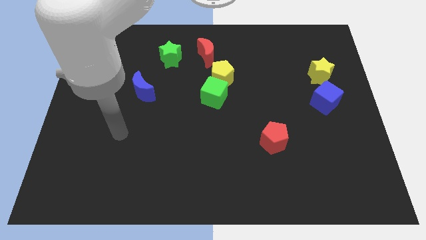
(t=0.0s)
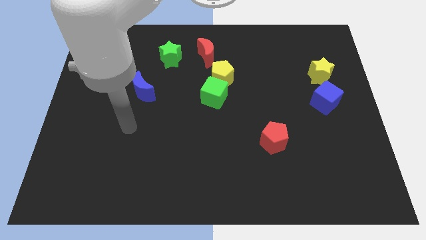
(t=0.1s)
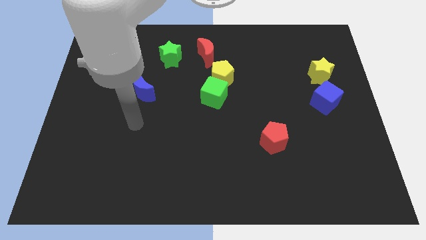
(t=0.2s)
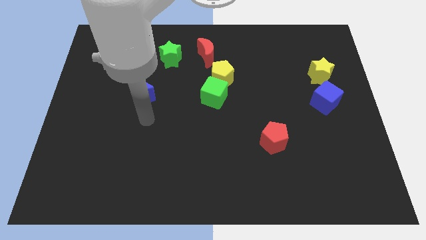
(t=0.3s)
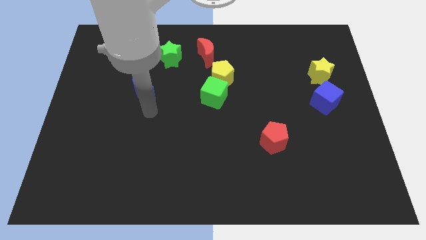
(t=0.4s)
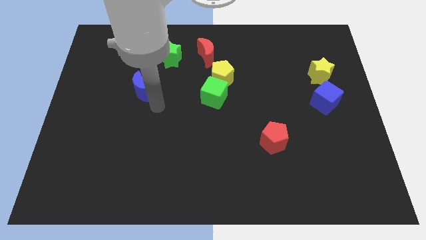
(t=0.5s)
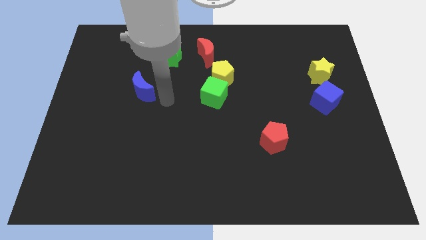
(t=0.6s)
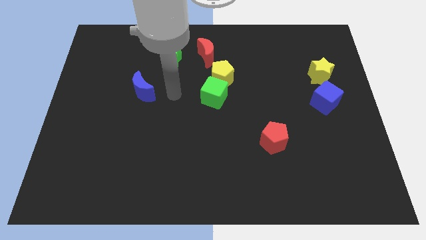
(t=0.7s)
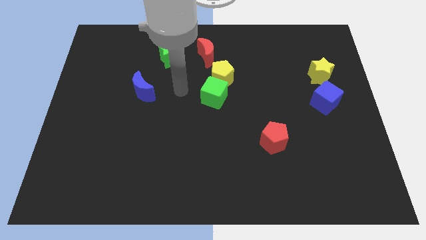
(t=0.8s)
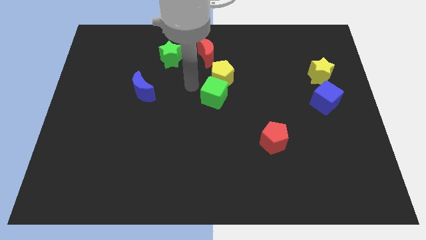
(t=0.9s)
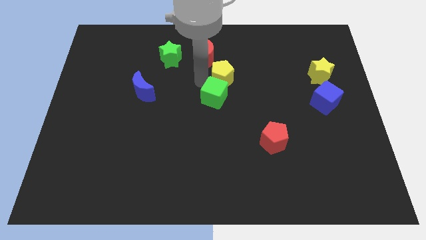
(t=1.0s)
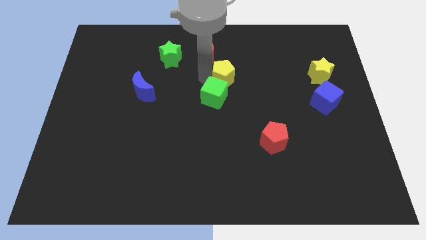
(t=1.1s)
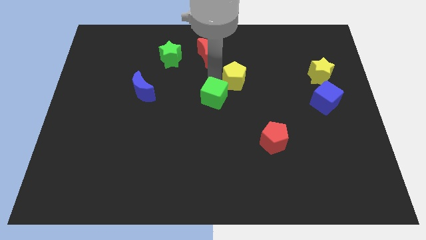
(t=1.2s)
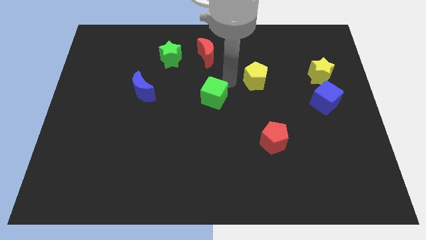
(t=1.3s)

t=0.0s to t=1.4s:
separate the green cube from the yellow pentagon

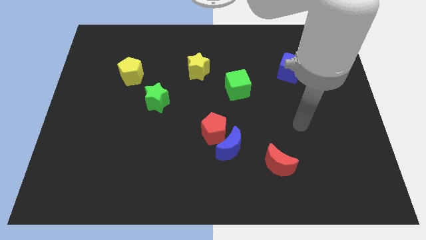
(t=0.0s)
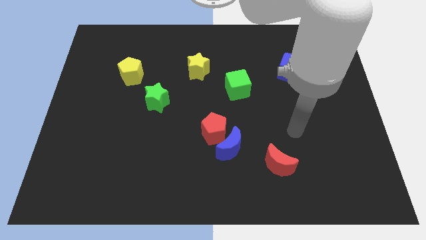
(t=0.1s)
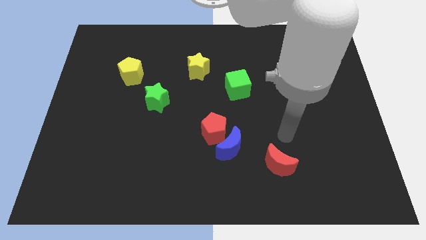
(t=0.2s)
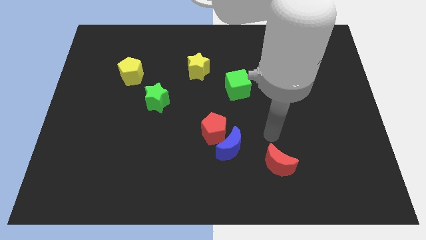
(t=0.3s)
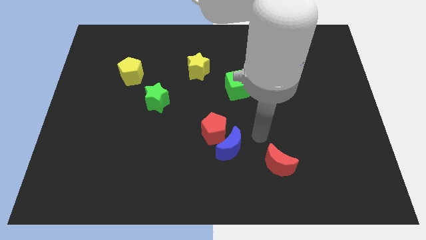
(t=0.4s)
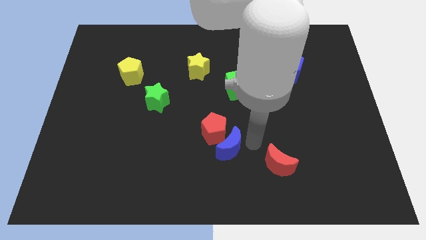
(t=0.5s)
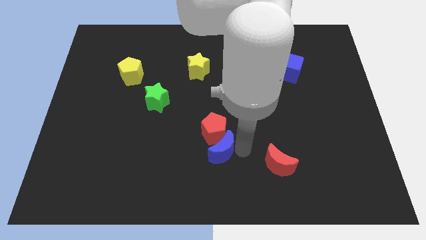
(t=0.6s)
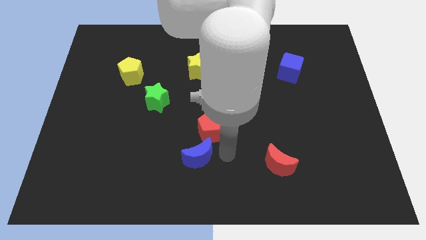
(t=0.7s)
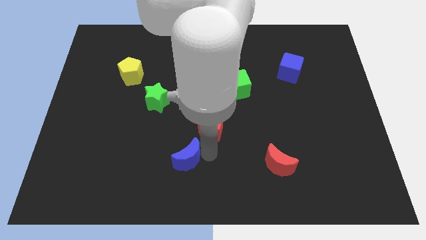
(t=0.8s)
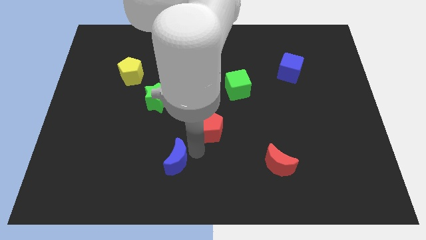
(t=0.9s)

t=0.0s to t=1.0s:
pull the red pentagon apart from the blue moon

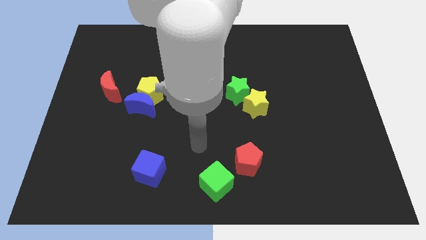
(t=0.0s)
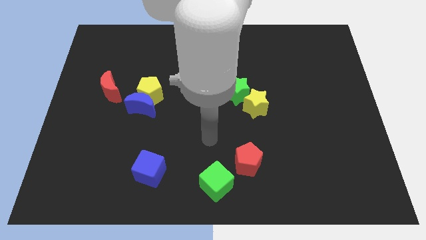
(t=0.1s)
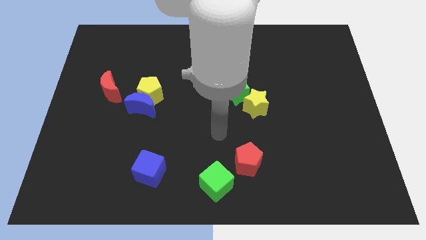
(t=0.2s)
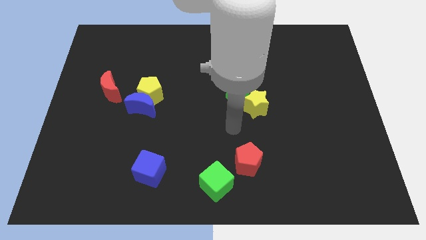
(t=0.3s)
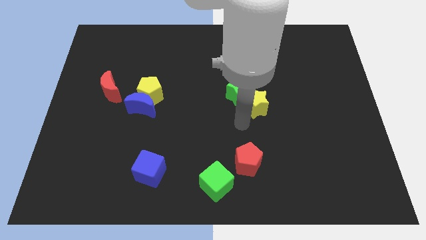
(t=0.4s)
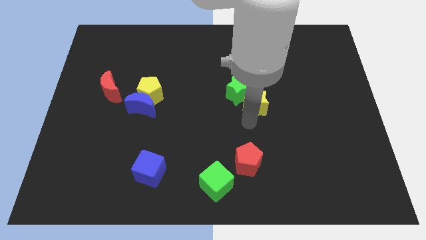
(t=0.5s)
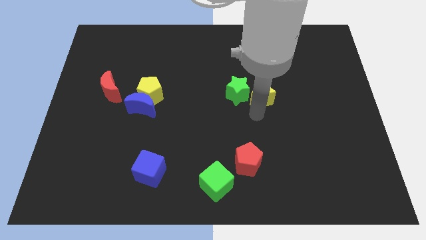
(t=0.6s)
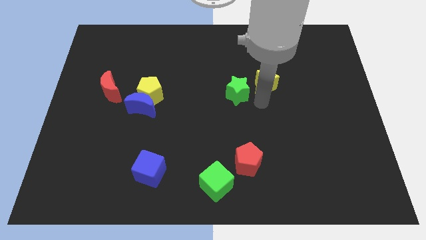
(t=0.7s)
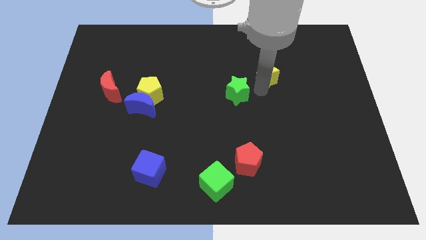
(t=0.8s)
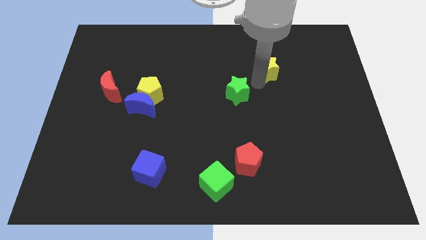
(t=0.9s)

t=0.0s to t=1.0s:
separate the green star from the yellow star

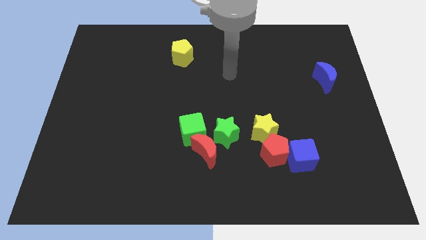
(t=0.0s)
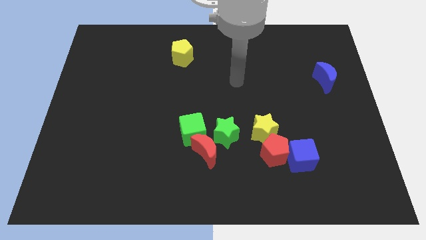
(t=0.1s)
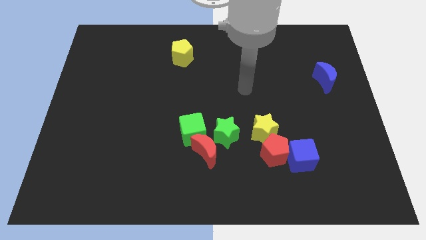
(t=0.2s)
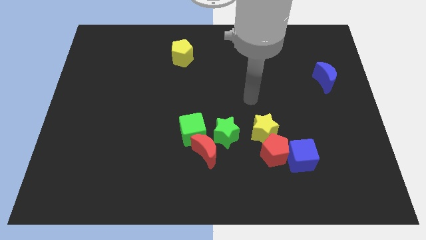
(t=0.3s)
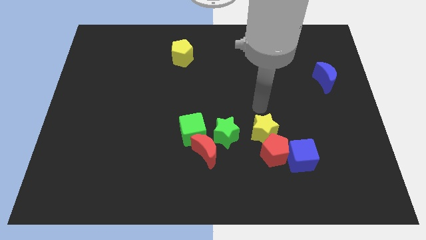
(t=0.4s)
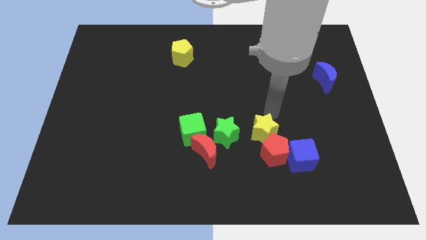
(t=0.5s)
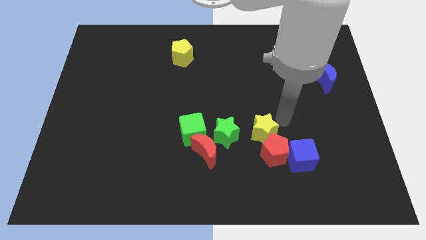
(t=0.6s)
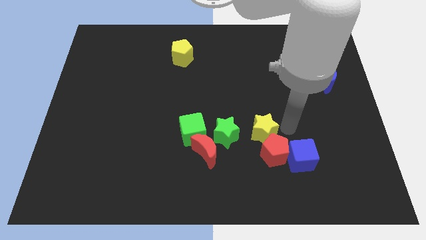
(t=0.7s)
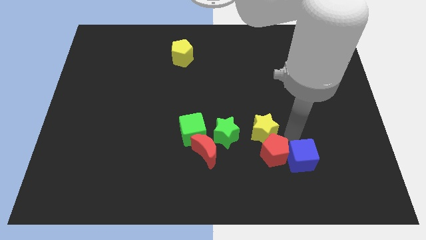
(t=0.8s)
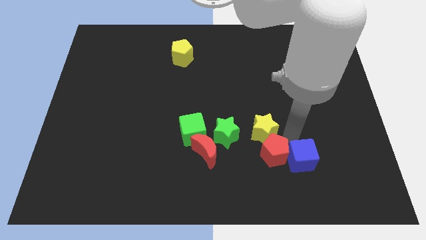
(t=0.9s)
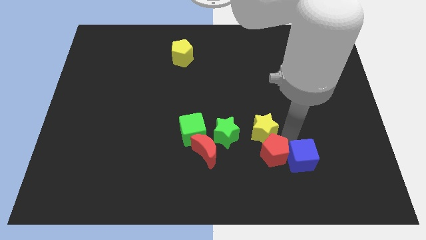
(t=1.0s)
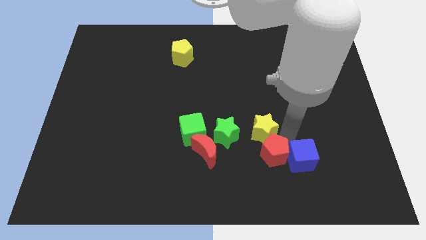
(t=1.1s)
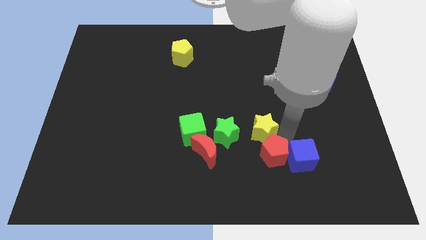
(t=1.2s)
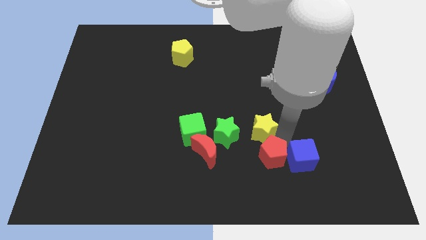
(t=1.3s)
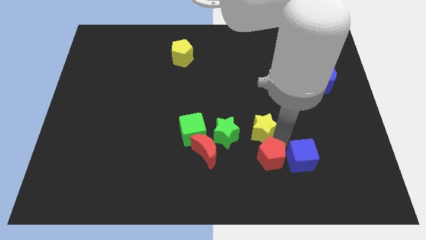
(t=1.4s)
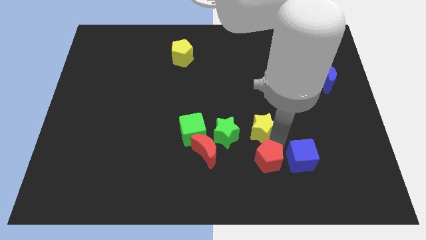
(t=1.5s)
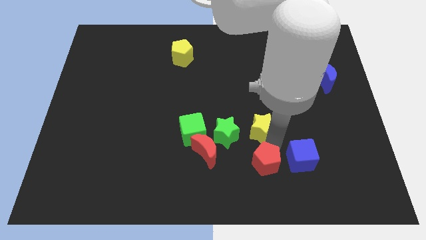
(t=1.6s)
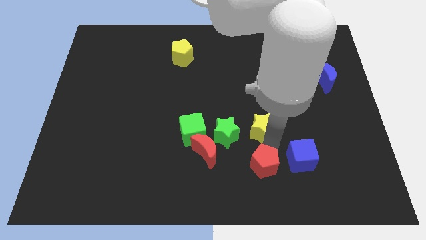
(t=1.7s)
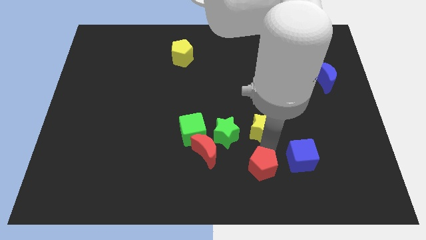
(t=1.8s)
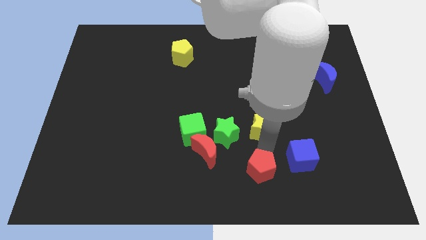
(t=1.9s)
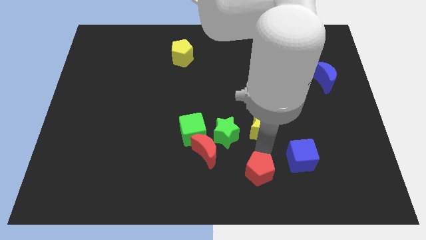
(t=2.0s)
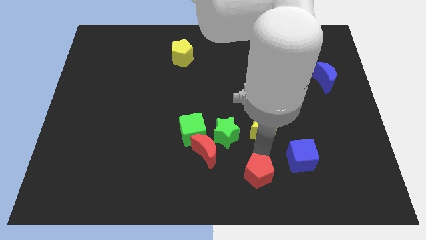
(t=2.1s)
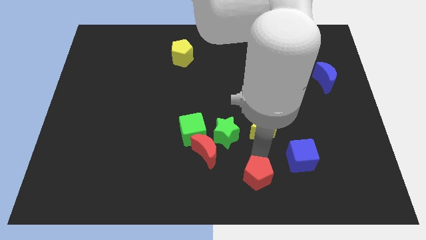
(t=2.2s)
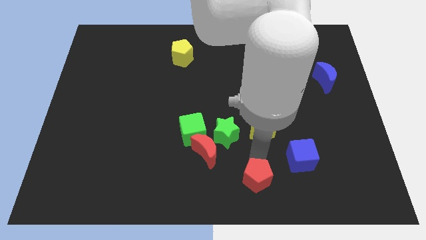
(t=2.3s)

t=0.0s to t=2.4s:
move the red pentagon away from the yellow star and blue cube

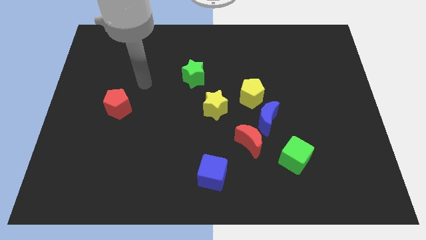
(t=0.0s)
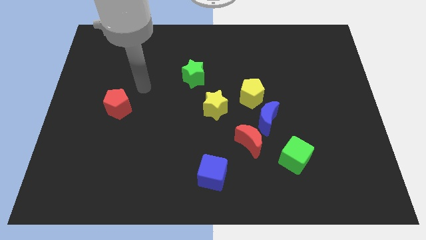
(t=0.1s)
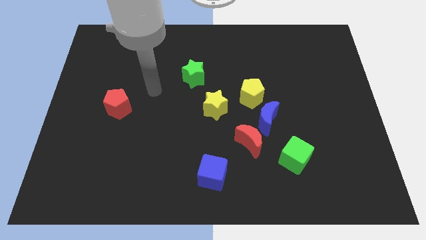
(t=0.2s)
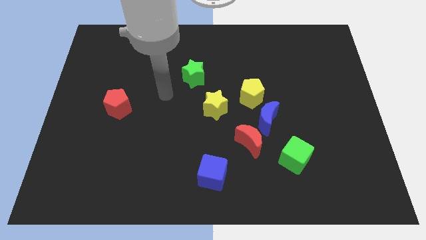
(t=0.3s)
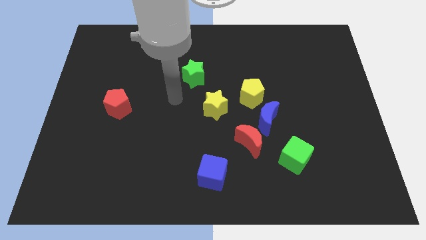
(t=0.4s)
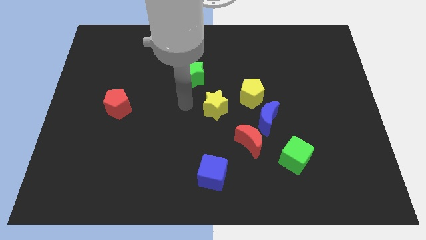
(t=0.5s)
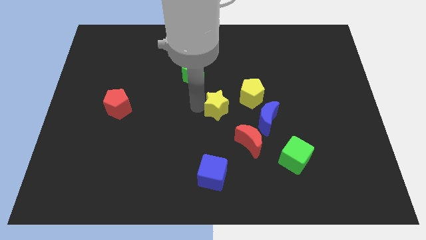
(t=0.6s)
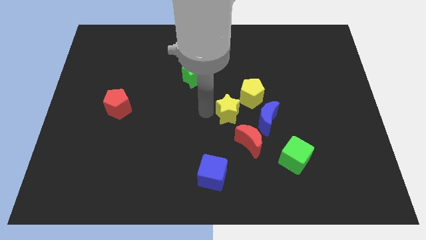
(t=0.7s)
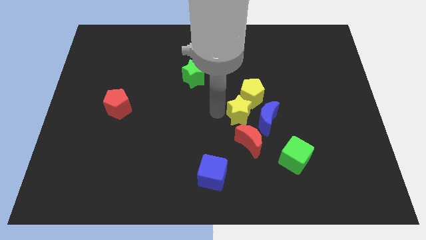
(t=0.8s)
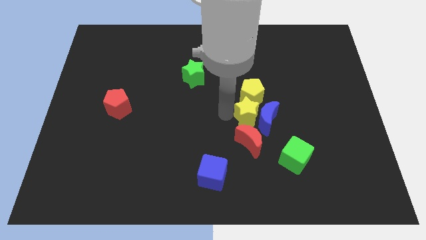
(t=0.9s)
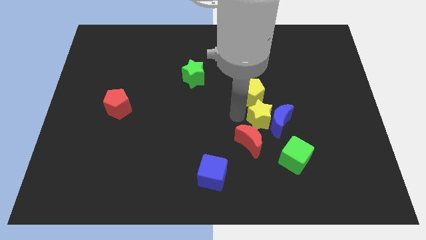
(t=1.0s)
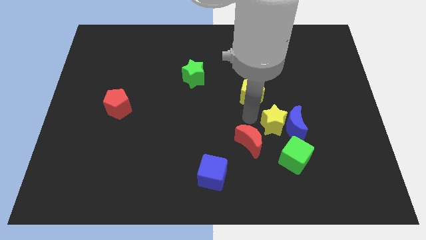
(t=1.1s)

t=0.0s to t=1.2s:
pull the blue moon apart from the red moon and yellow pentagon

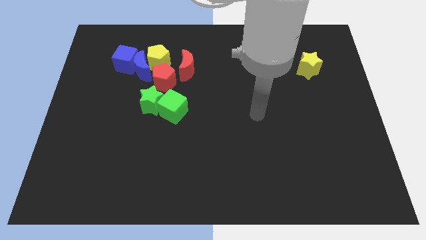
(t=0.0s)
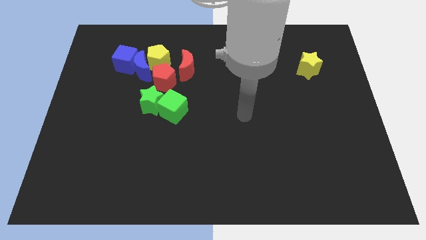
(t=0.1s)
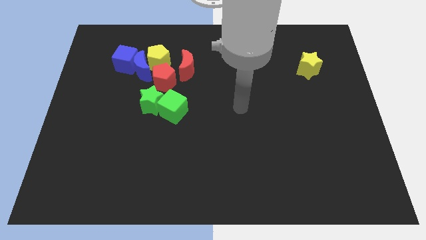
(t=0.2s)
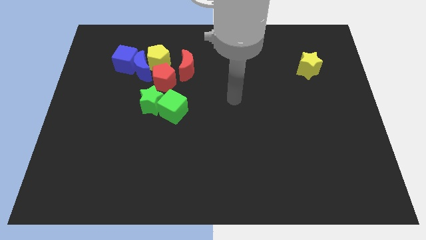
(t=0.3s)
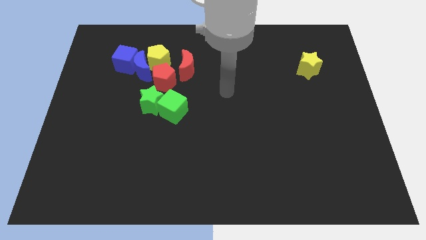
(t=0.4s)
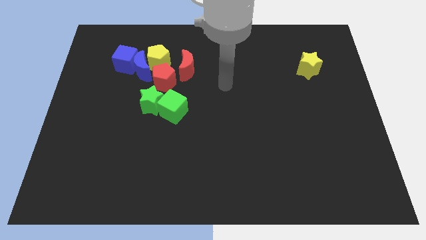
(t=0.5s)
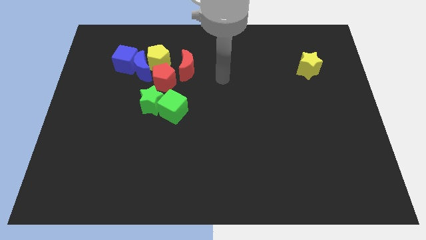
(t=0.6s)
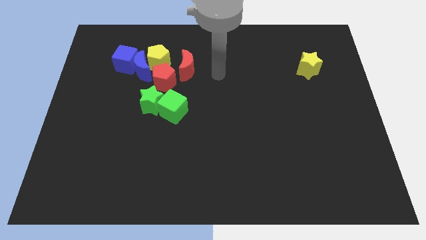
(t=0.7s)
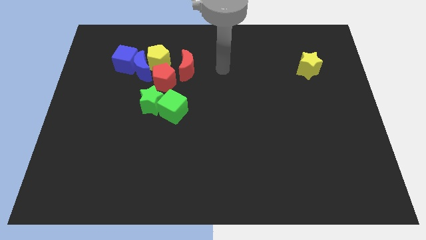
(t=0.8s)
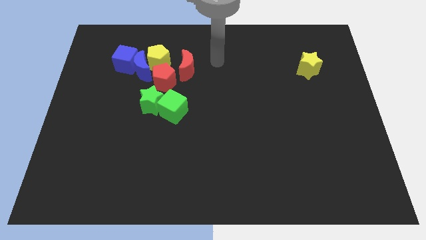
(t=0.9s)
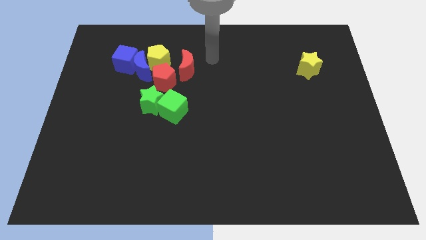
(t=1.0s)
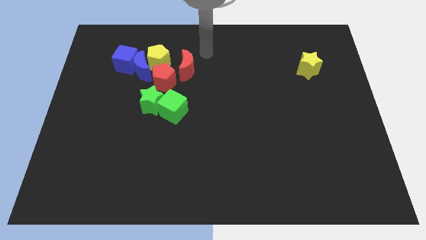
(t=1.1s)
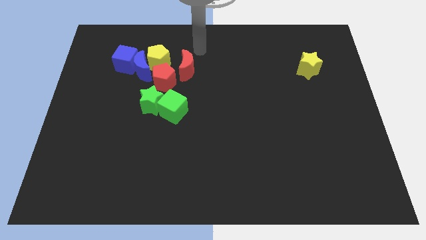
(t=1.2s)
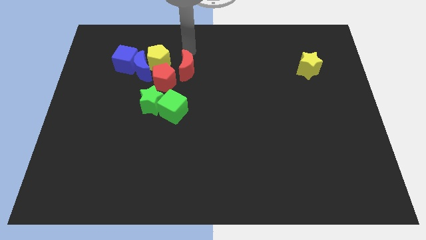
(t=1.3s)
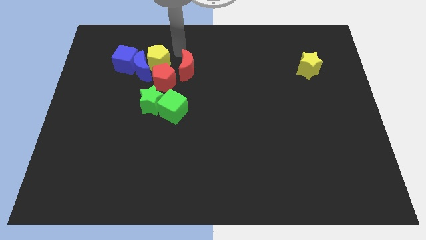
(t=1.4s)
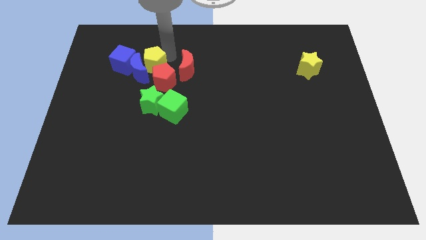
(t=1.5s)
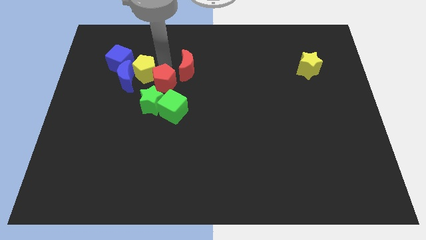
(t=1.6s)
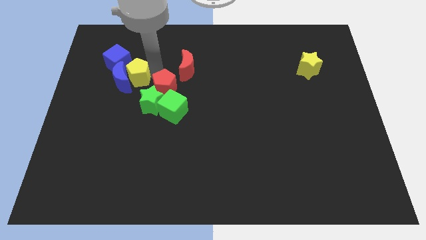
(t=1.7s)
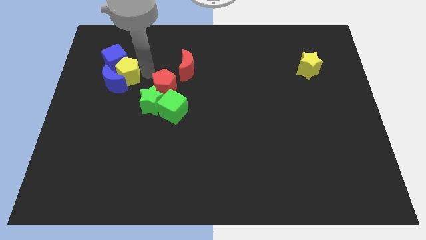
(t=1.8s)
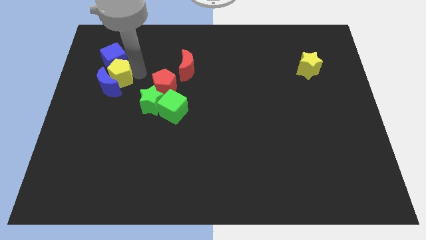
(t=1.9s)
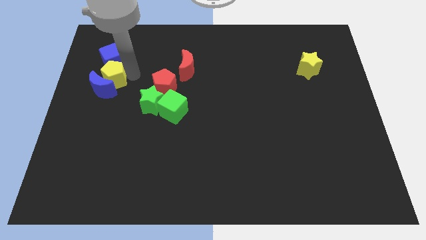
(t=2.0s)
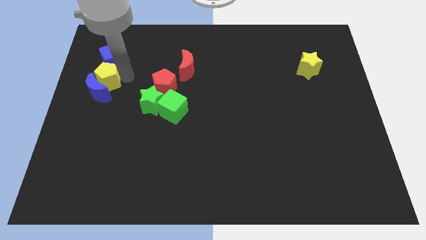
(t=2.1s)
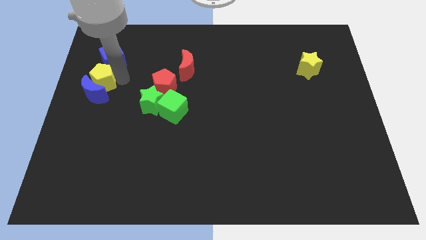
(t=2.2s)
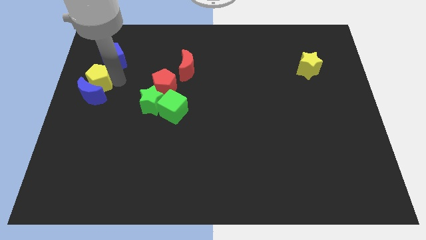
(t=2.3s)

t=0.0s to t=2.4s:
move the blue moon away from the group
